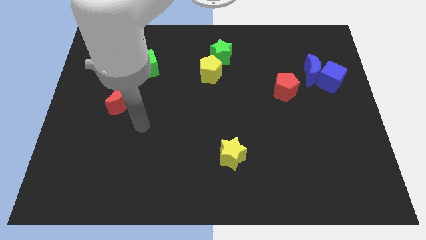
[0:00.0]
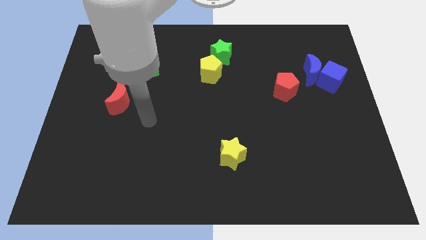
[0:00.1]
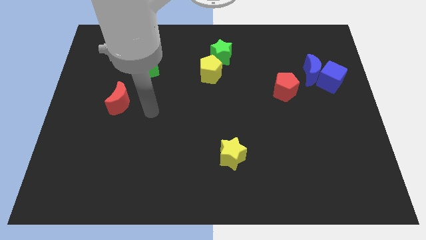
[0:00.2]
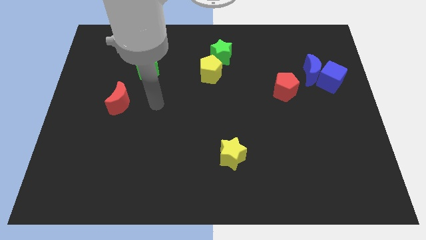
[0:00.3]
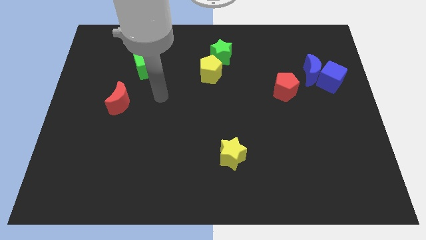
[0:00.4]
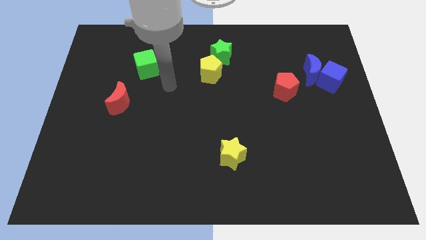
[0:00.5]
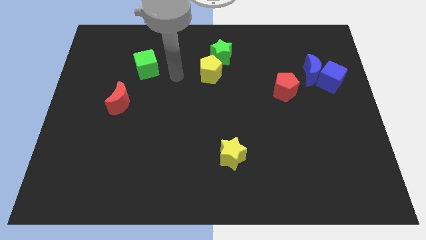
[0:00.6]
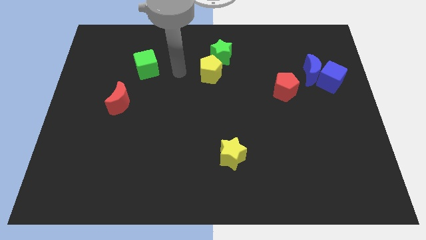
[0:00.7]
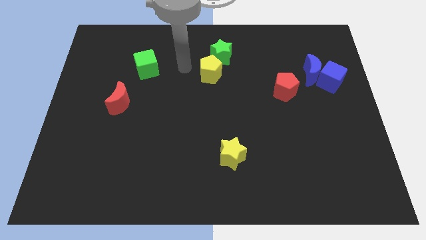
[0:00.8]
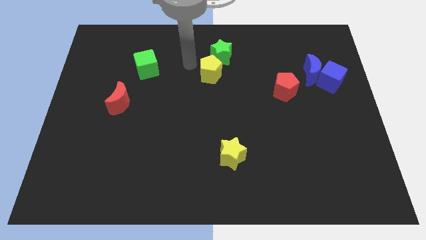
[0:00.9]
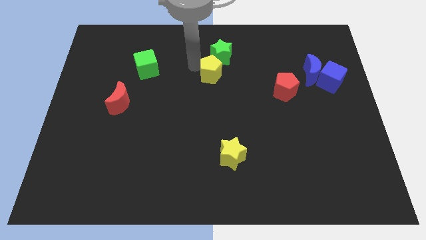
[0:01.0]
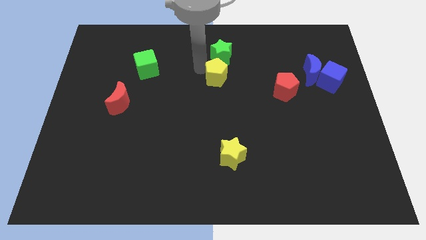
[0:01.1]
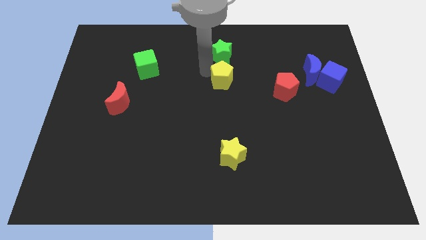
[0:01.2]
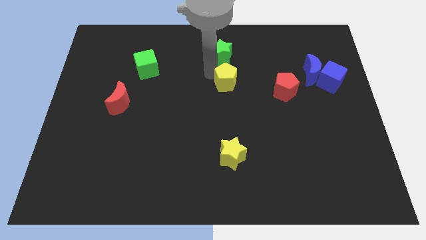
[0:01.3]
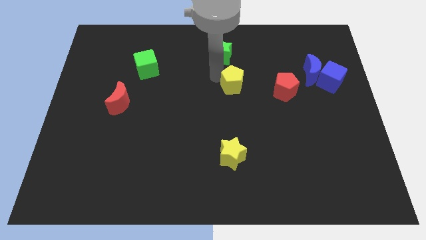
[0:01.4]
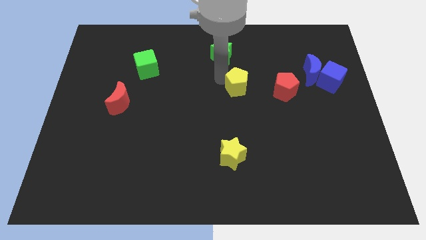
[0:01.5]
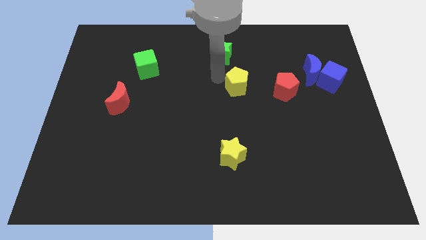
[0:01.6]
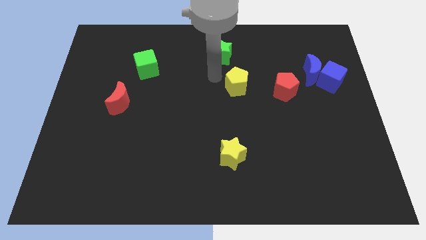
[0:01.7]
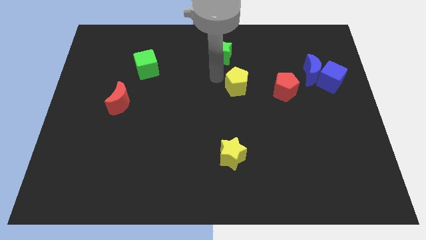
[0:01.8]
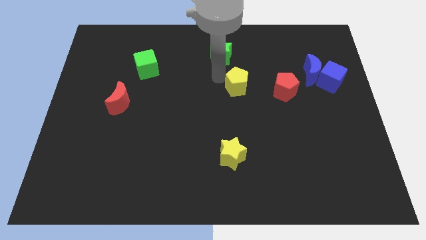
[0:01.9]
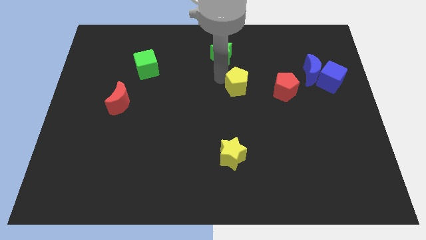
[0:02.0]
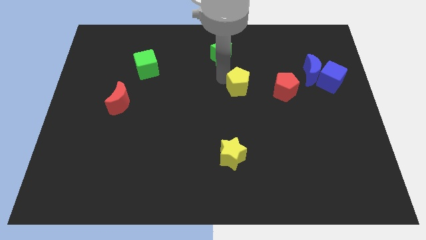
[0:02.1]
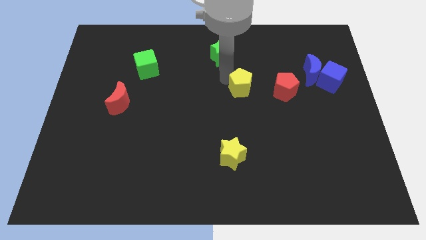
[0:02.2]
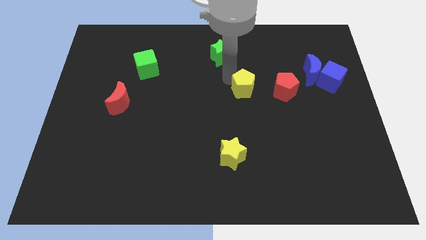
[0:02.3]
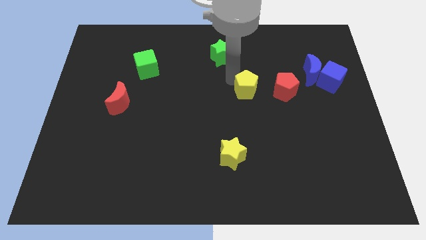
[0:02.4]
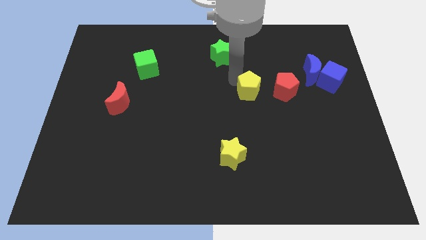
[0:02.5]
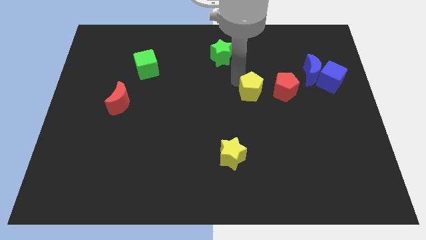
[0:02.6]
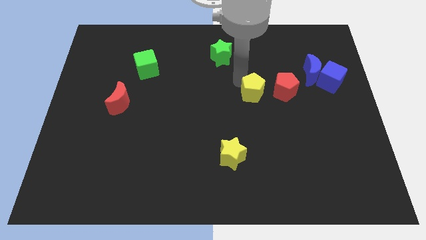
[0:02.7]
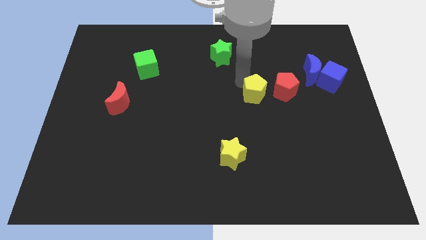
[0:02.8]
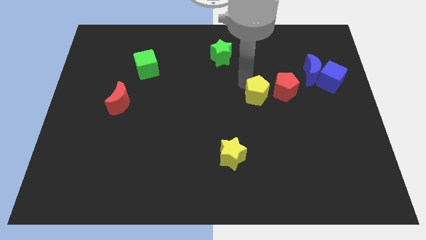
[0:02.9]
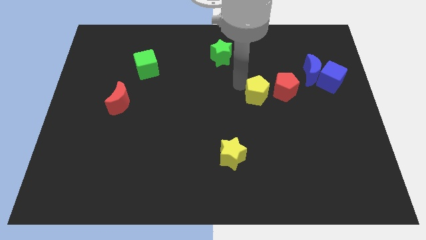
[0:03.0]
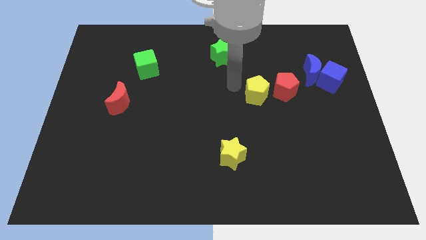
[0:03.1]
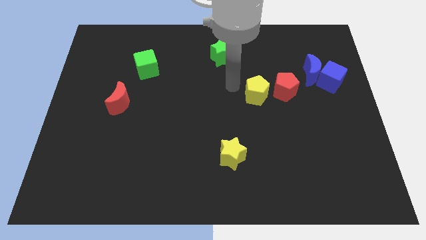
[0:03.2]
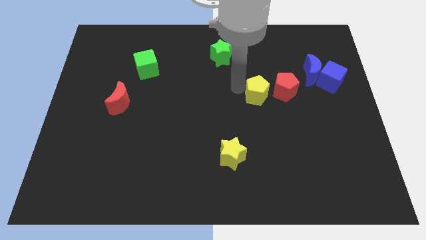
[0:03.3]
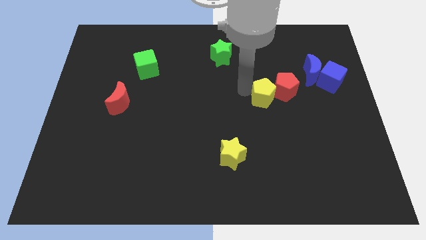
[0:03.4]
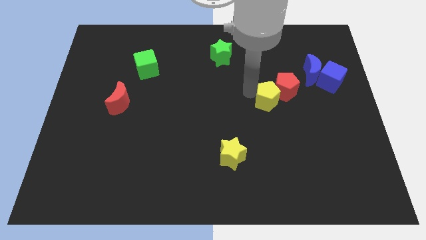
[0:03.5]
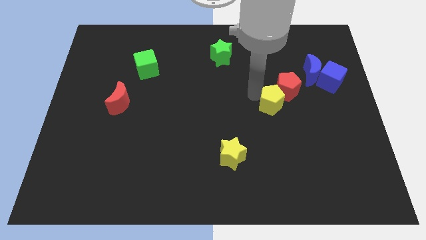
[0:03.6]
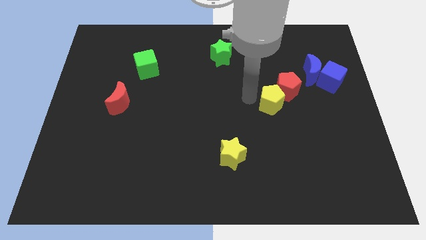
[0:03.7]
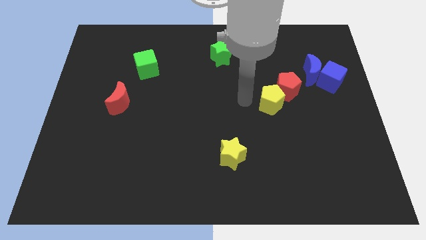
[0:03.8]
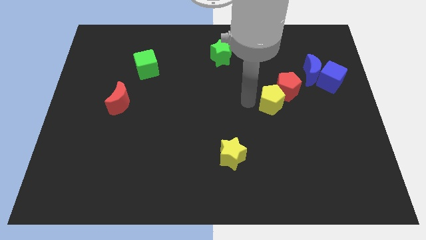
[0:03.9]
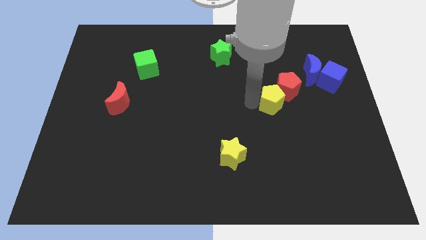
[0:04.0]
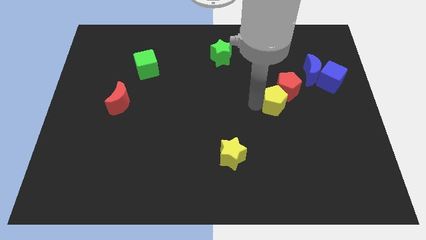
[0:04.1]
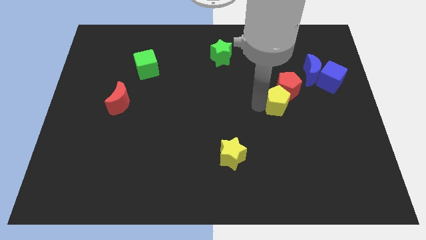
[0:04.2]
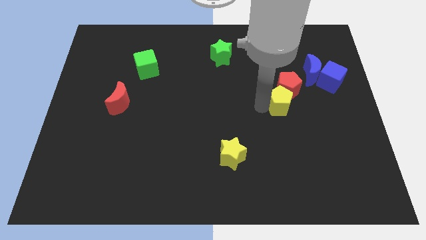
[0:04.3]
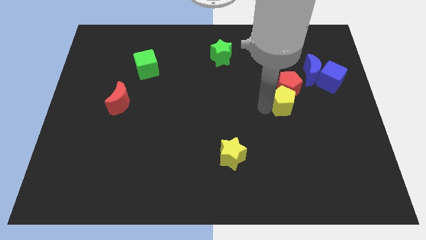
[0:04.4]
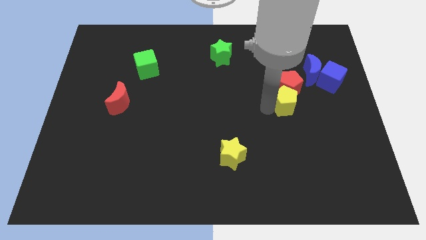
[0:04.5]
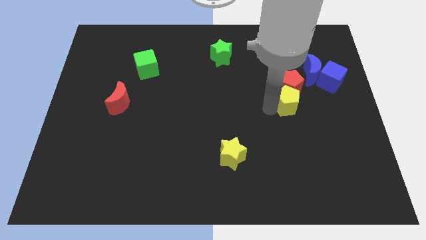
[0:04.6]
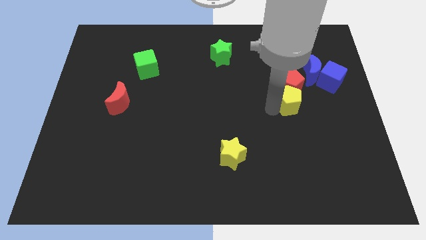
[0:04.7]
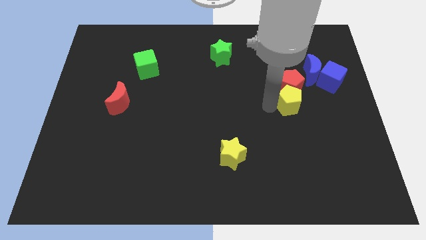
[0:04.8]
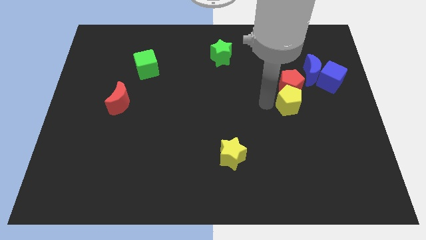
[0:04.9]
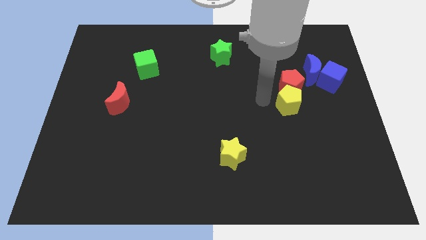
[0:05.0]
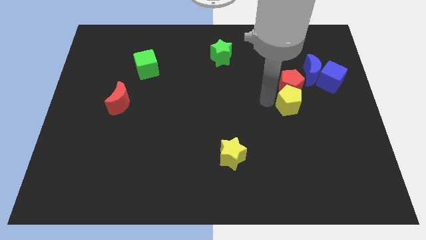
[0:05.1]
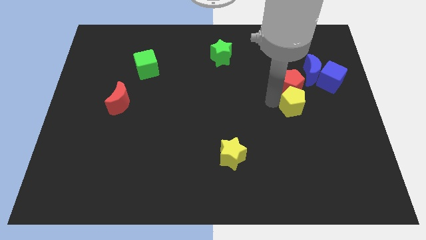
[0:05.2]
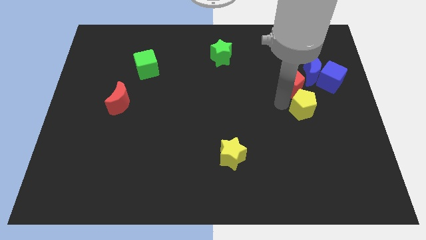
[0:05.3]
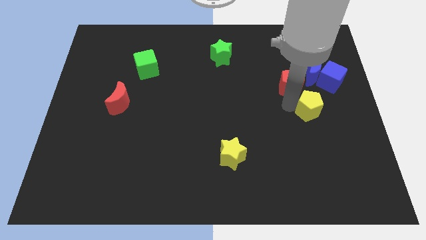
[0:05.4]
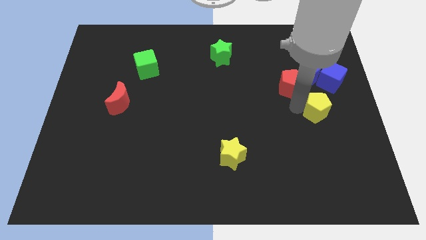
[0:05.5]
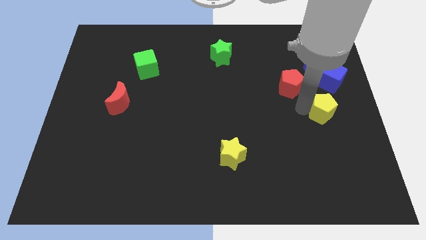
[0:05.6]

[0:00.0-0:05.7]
slide the yellow pentagon to the center right

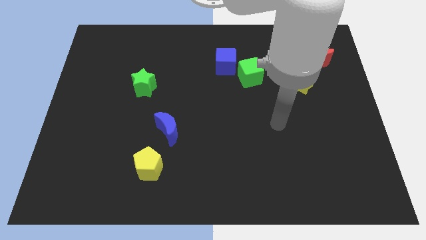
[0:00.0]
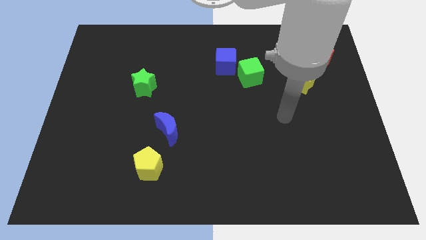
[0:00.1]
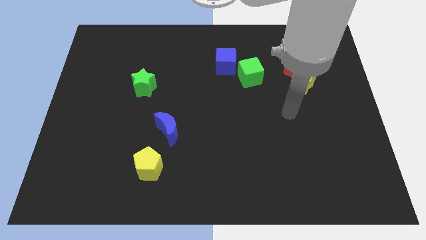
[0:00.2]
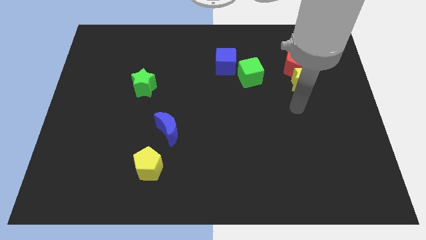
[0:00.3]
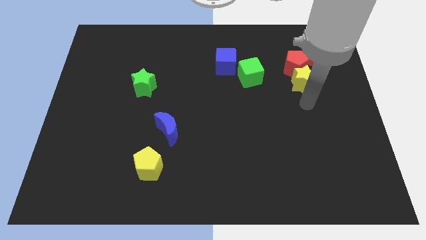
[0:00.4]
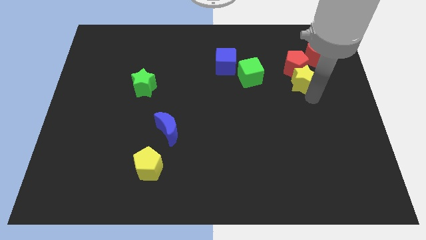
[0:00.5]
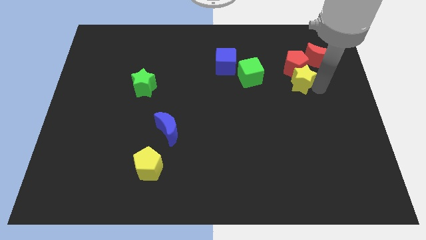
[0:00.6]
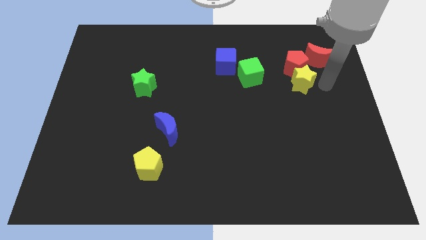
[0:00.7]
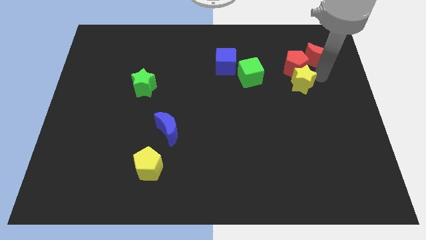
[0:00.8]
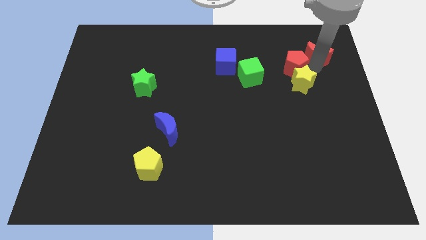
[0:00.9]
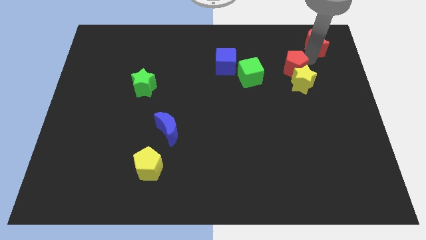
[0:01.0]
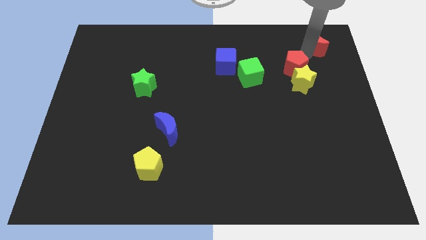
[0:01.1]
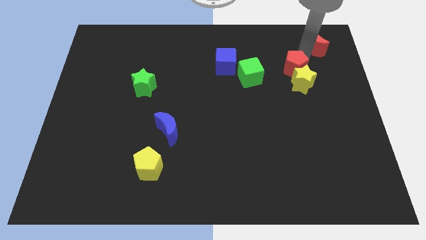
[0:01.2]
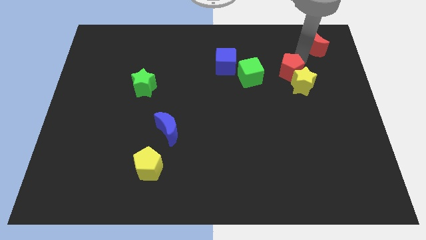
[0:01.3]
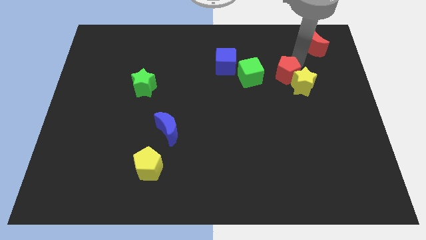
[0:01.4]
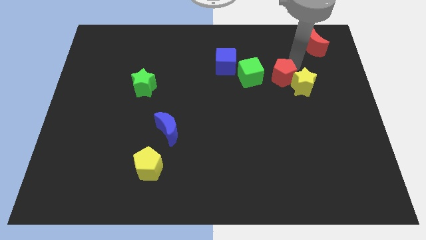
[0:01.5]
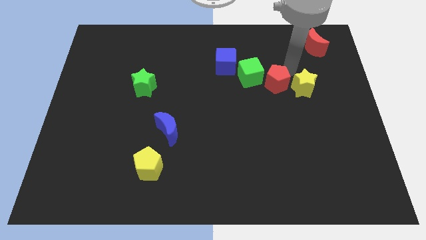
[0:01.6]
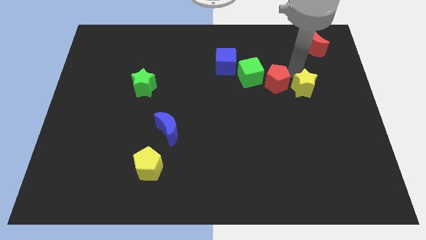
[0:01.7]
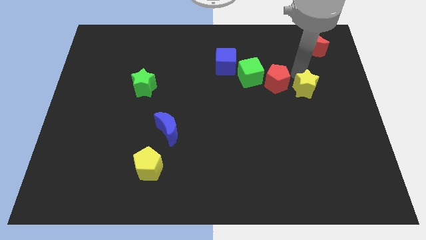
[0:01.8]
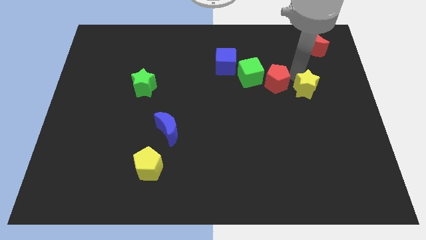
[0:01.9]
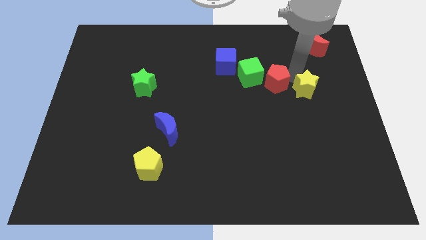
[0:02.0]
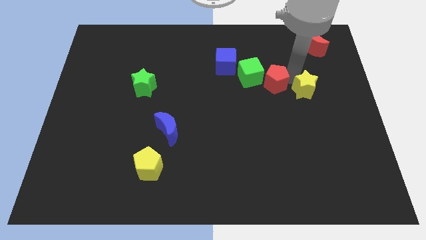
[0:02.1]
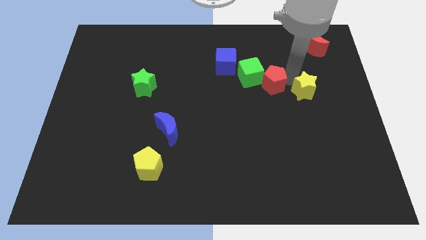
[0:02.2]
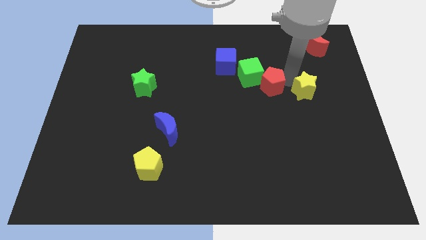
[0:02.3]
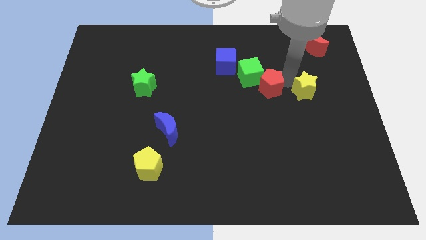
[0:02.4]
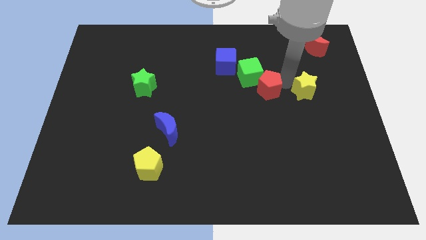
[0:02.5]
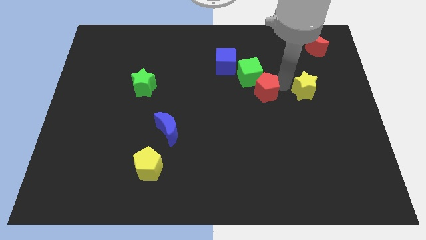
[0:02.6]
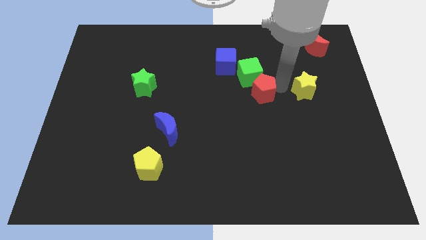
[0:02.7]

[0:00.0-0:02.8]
slide the red pentagon to the center of the board
